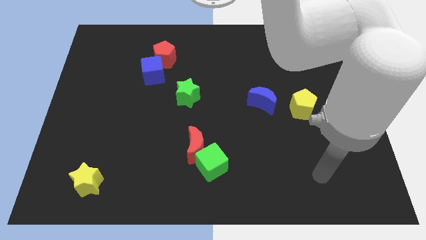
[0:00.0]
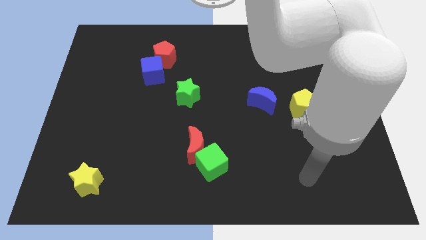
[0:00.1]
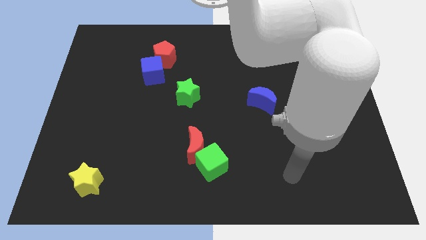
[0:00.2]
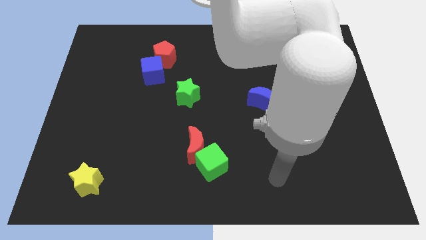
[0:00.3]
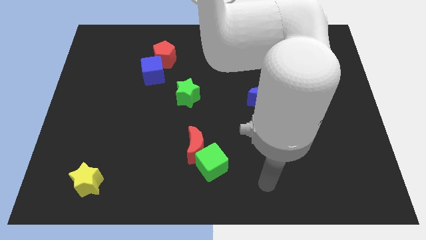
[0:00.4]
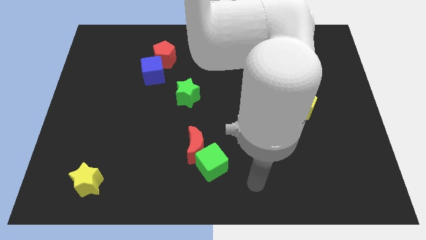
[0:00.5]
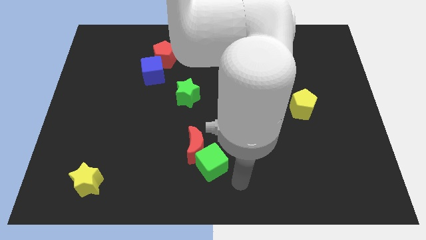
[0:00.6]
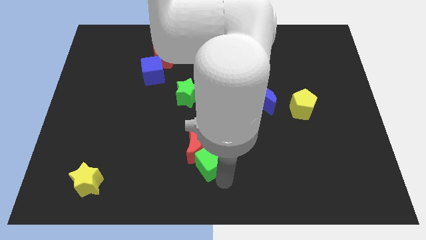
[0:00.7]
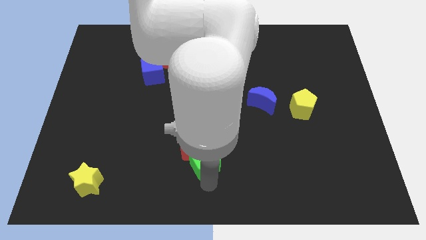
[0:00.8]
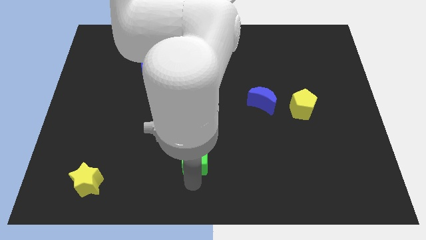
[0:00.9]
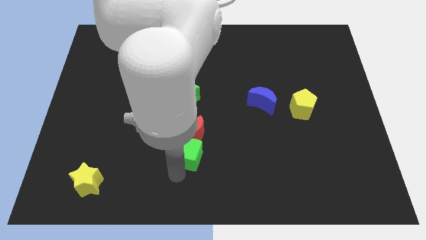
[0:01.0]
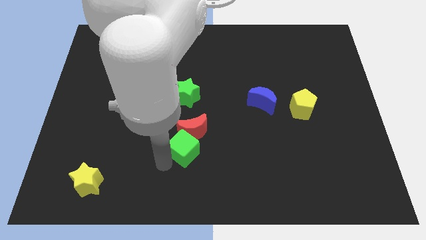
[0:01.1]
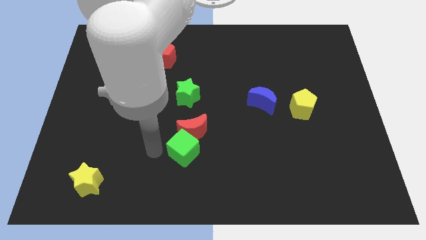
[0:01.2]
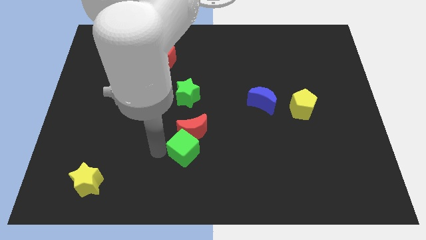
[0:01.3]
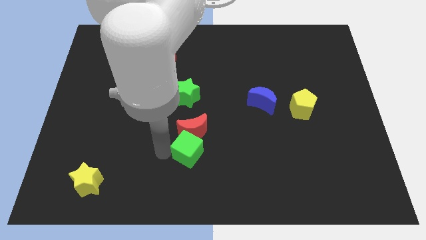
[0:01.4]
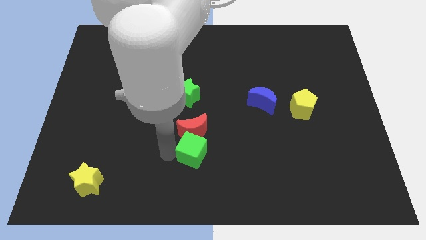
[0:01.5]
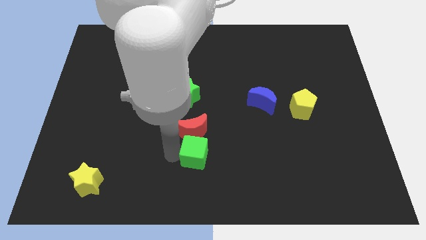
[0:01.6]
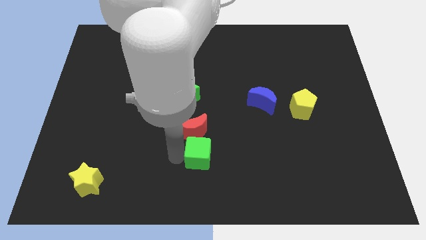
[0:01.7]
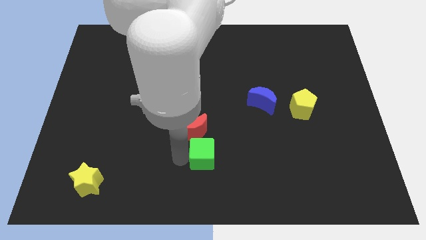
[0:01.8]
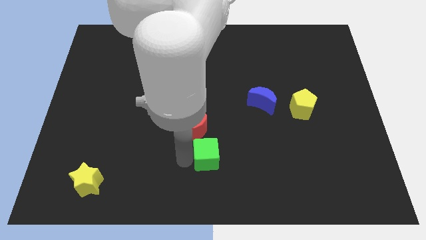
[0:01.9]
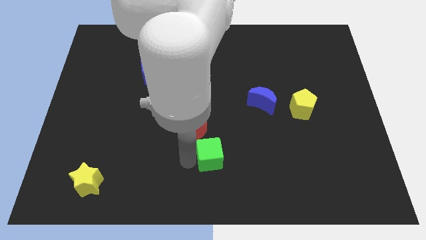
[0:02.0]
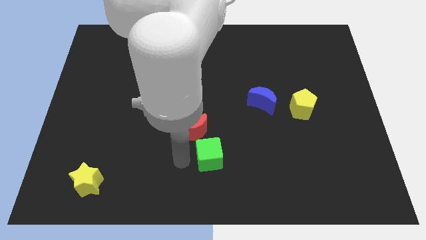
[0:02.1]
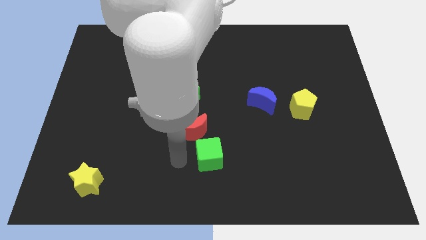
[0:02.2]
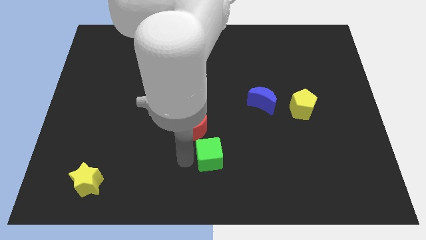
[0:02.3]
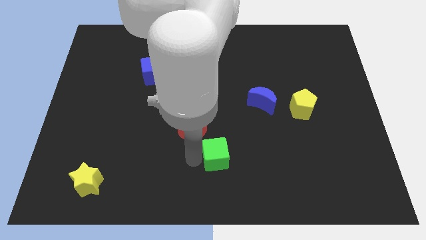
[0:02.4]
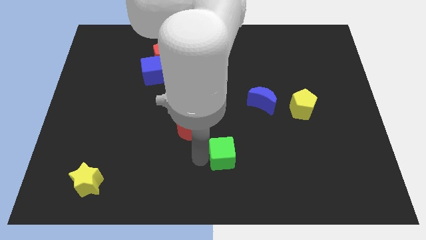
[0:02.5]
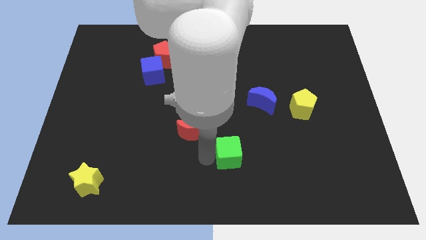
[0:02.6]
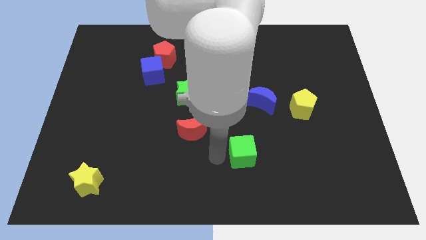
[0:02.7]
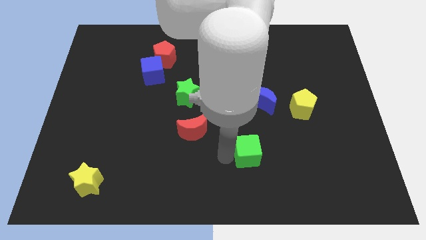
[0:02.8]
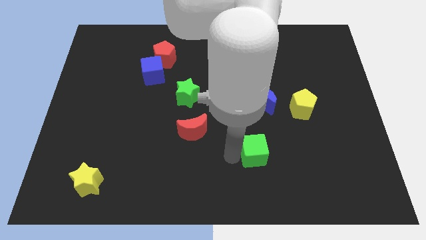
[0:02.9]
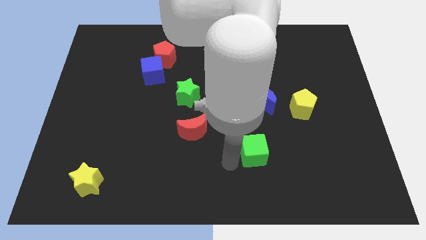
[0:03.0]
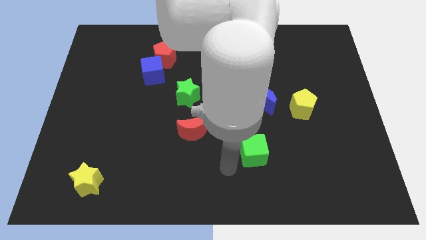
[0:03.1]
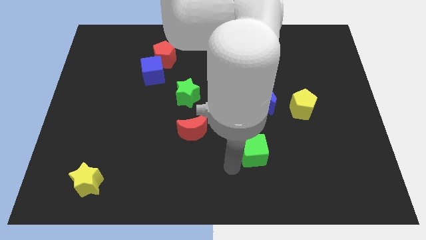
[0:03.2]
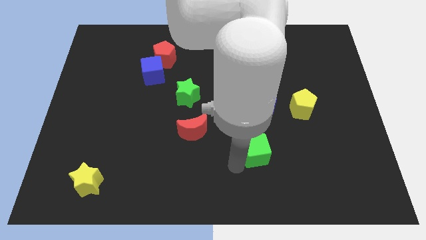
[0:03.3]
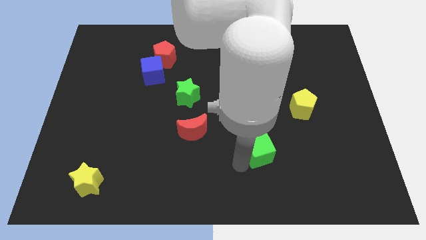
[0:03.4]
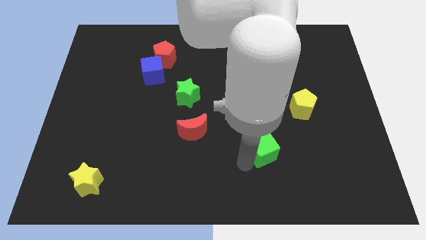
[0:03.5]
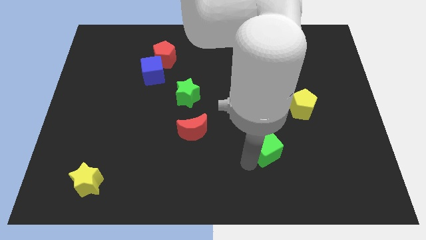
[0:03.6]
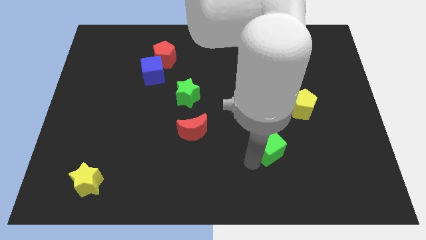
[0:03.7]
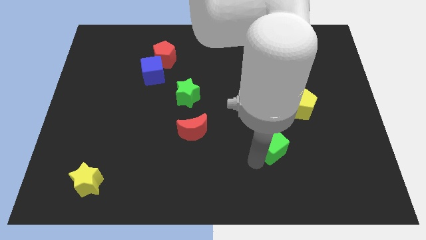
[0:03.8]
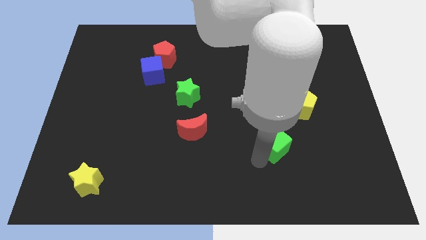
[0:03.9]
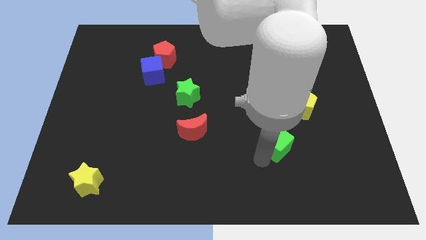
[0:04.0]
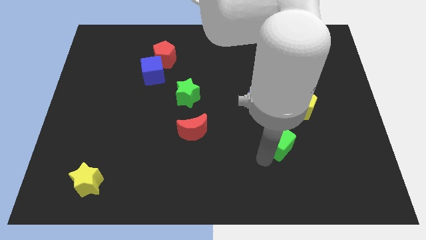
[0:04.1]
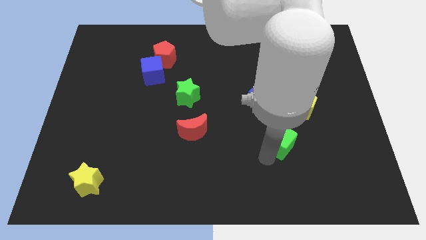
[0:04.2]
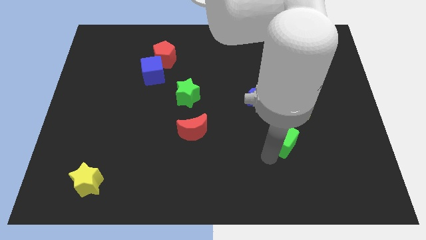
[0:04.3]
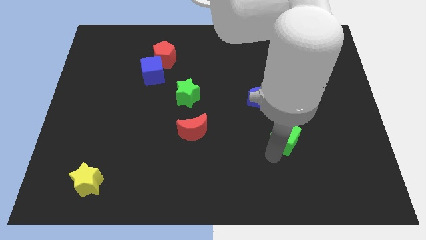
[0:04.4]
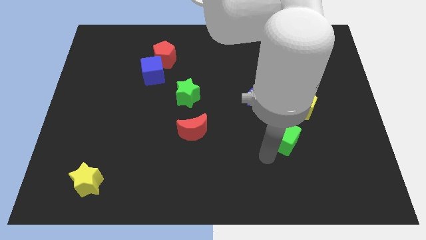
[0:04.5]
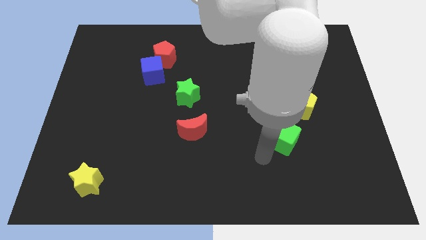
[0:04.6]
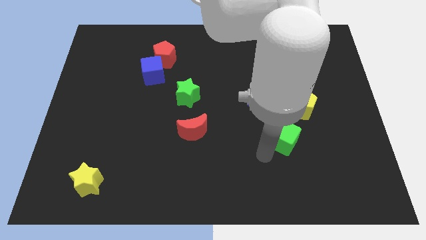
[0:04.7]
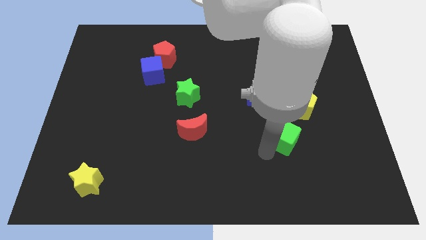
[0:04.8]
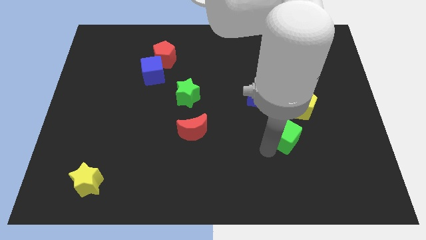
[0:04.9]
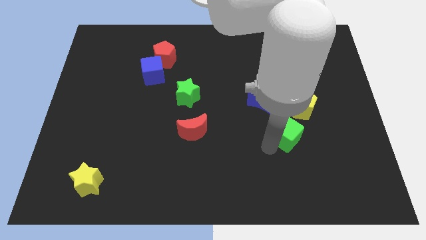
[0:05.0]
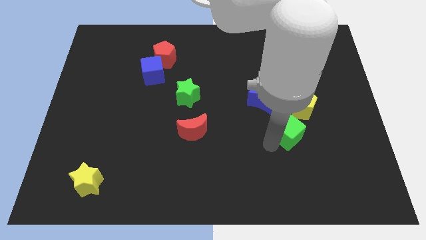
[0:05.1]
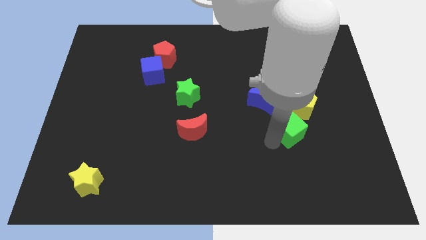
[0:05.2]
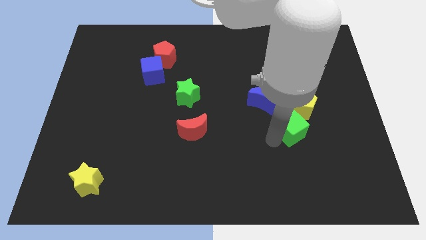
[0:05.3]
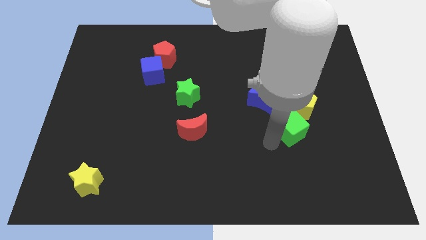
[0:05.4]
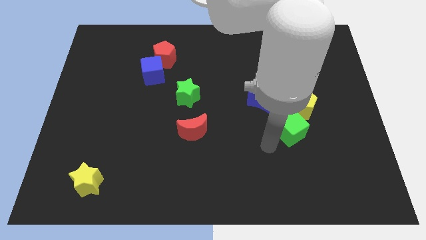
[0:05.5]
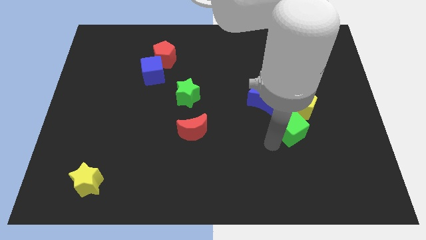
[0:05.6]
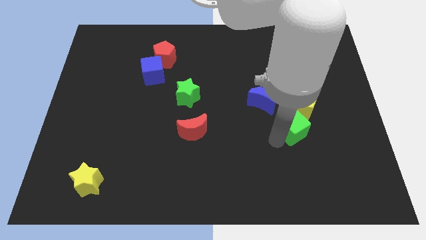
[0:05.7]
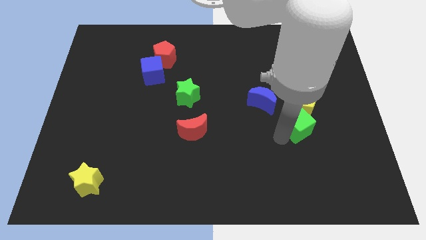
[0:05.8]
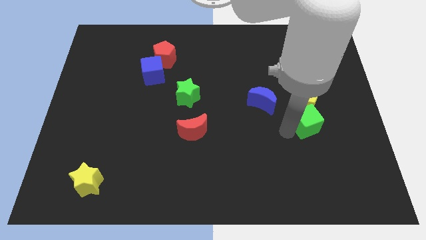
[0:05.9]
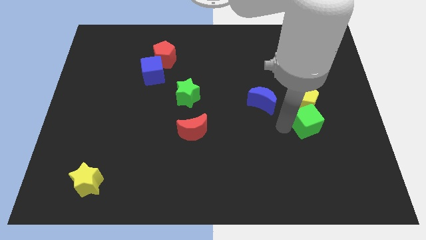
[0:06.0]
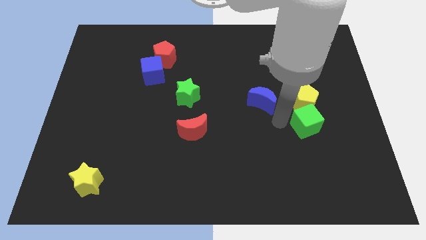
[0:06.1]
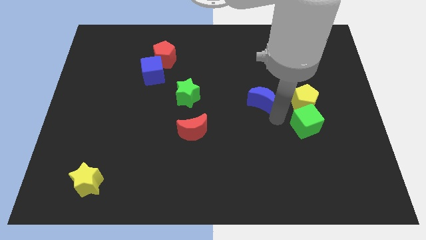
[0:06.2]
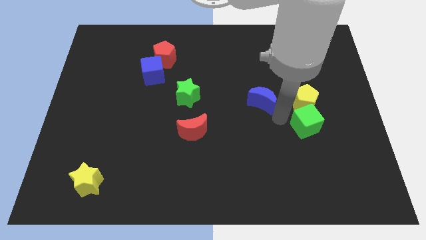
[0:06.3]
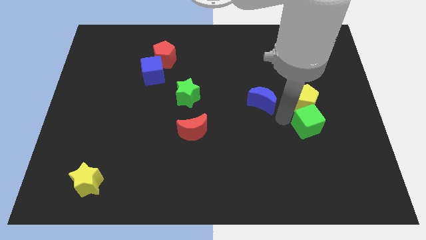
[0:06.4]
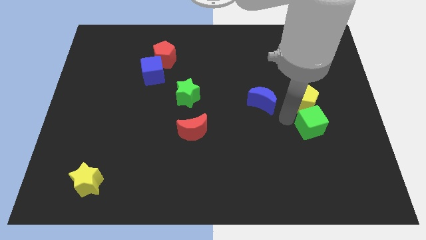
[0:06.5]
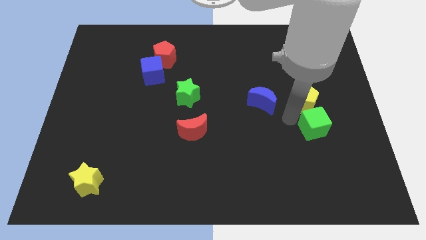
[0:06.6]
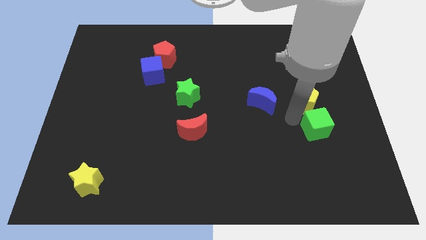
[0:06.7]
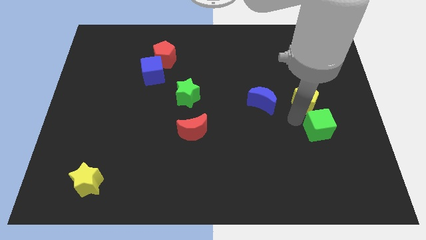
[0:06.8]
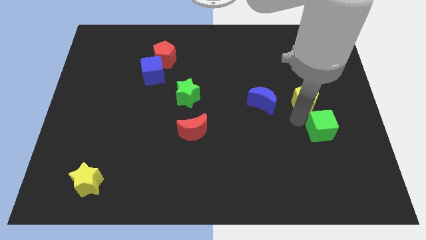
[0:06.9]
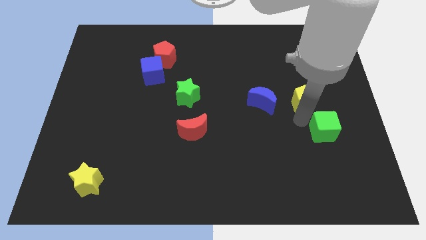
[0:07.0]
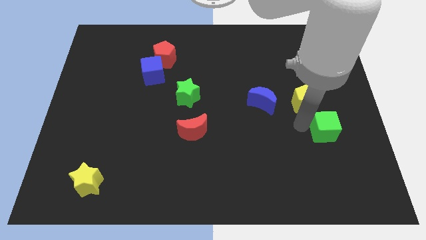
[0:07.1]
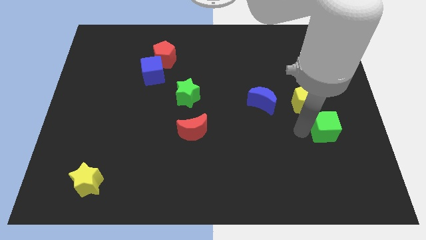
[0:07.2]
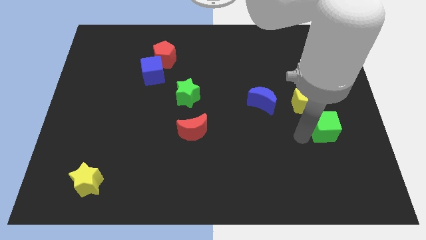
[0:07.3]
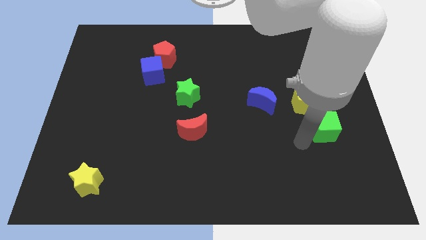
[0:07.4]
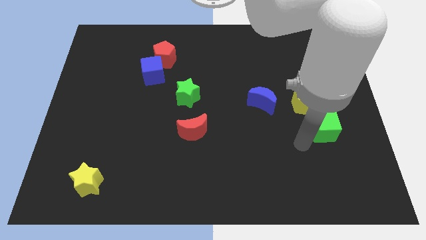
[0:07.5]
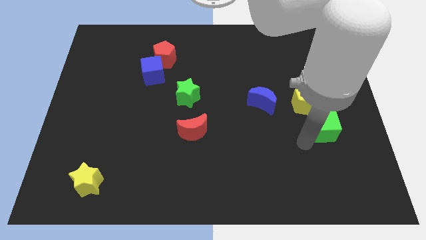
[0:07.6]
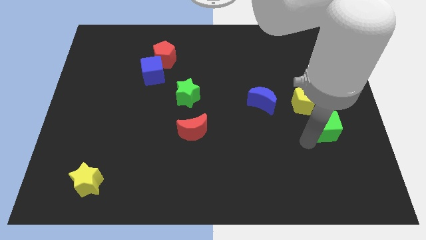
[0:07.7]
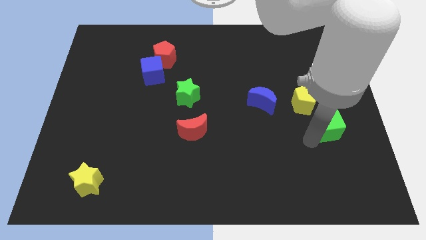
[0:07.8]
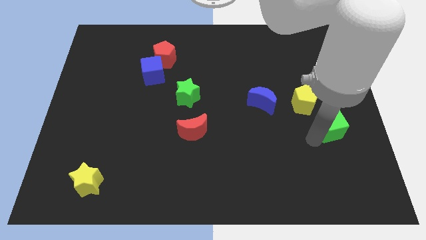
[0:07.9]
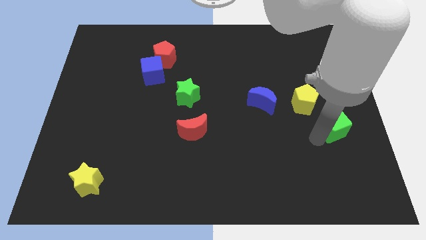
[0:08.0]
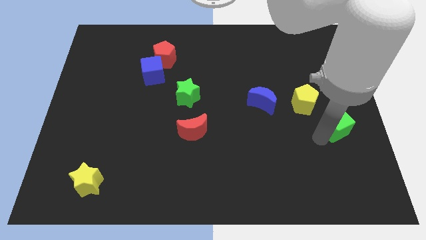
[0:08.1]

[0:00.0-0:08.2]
put the green cube to the right side of the board
